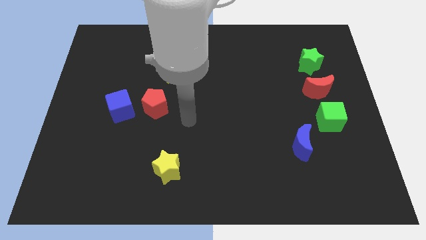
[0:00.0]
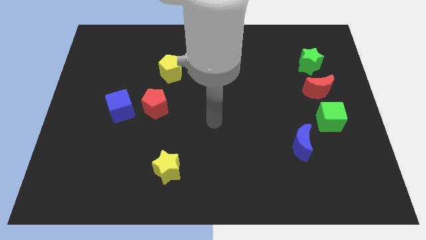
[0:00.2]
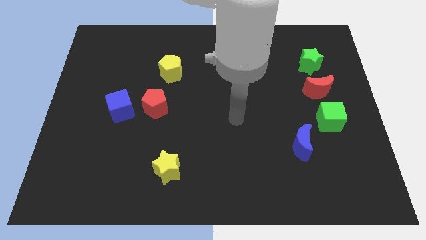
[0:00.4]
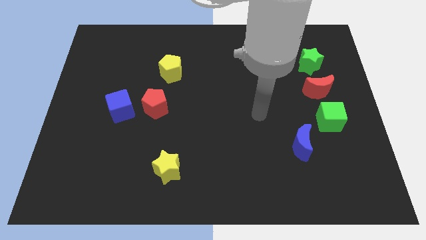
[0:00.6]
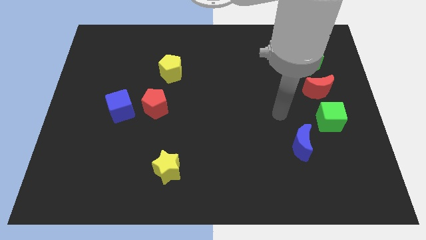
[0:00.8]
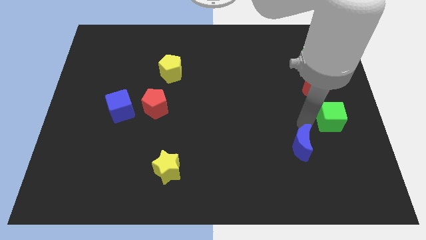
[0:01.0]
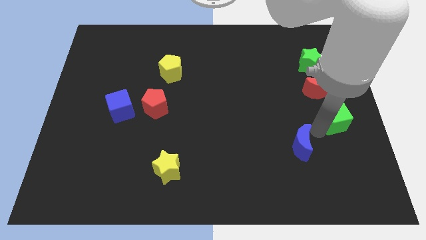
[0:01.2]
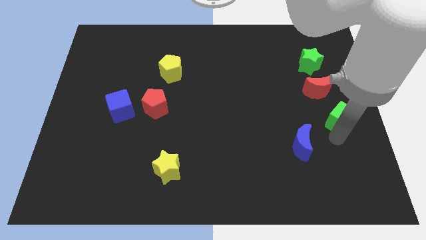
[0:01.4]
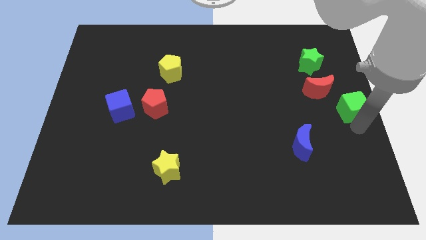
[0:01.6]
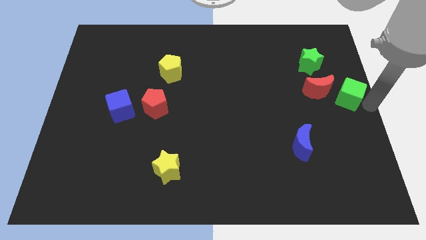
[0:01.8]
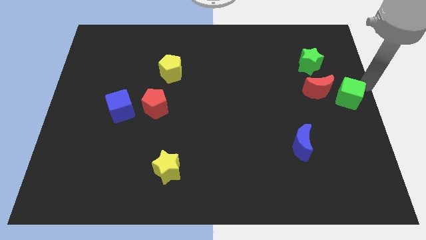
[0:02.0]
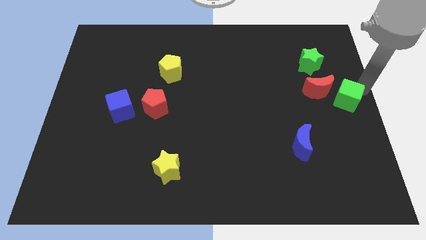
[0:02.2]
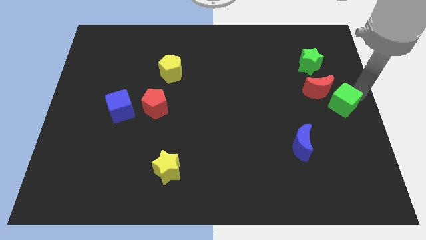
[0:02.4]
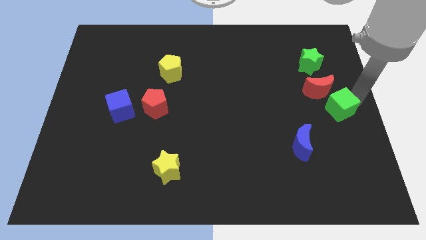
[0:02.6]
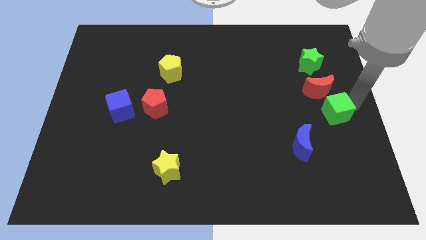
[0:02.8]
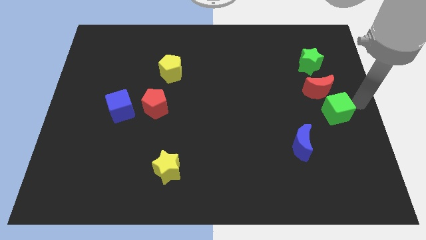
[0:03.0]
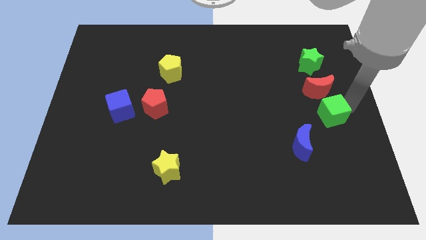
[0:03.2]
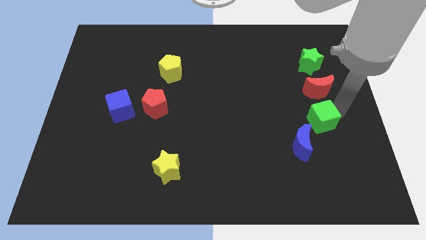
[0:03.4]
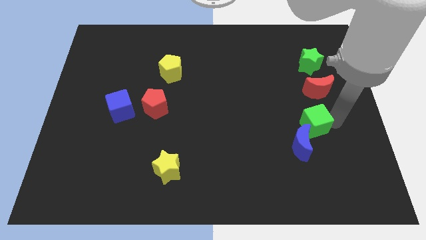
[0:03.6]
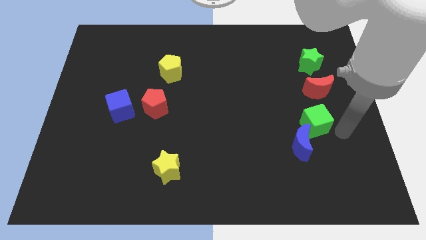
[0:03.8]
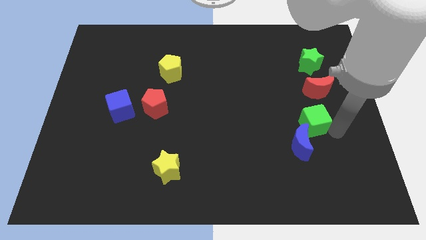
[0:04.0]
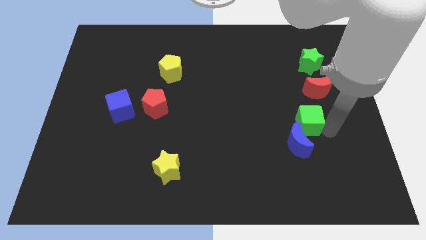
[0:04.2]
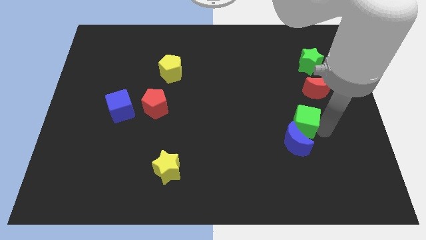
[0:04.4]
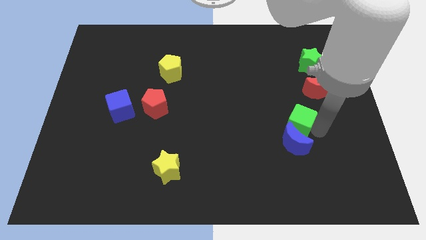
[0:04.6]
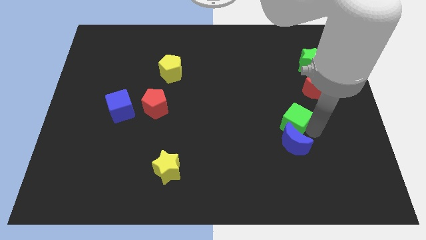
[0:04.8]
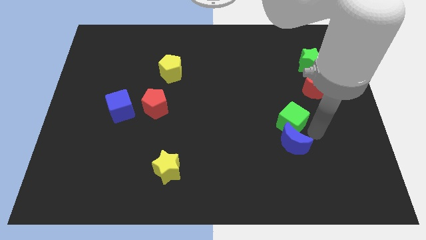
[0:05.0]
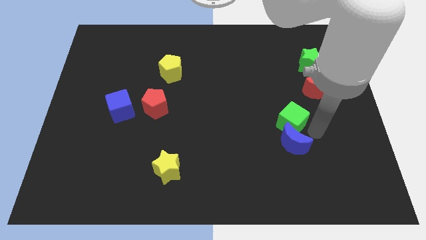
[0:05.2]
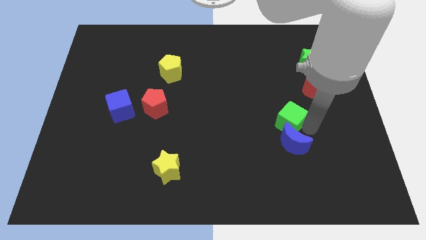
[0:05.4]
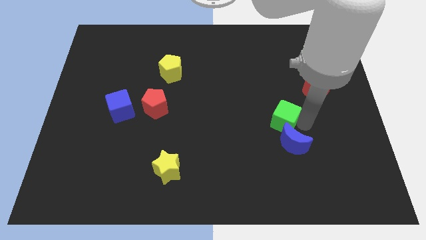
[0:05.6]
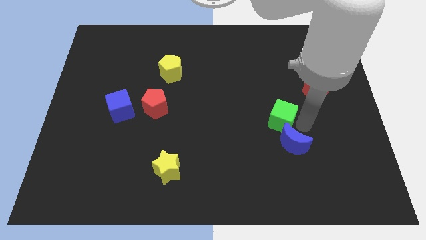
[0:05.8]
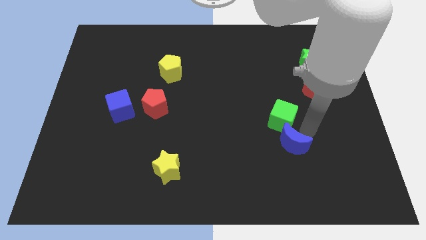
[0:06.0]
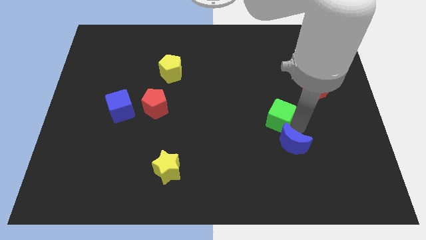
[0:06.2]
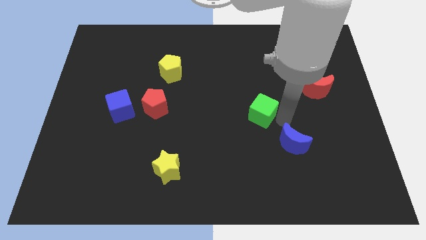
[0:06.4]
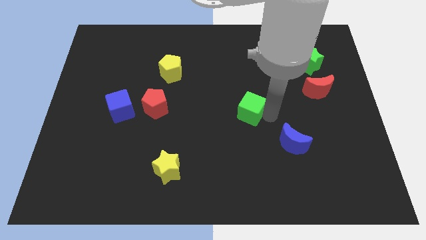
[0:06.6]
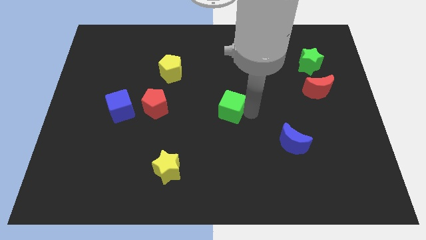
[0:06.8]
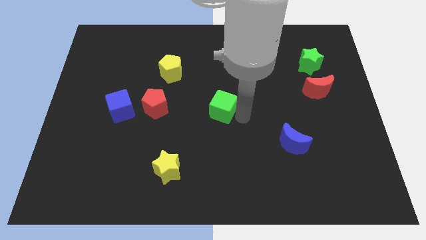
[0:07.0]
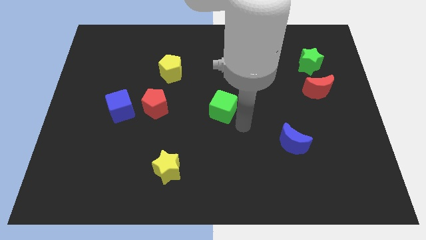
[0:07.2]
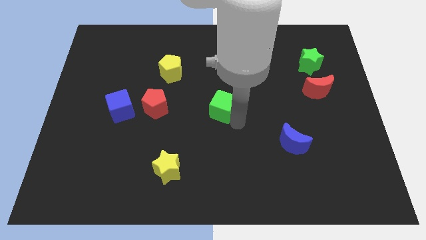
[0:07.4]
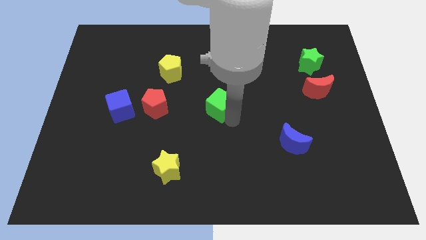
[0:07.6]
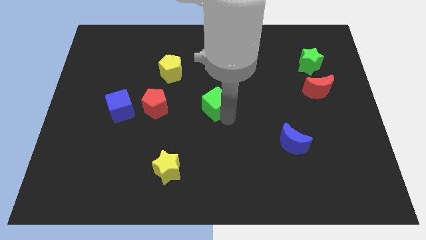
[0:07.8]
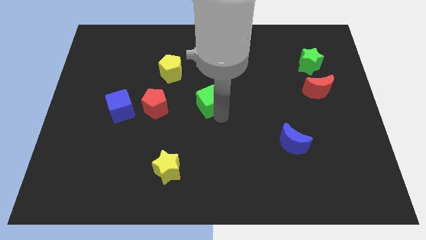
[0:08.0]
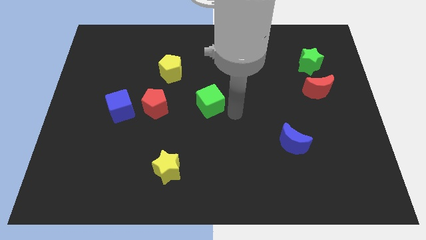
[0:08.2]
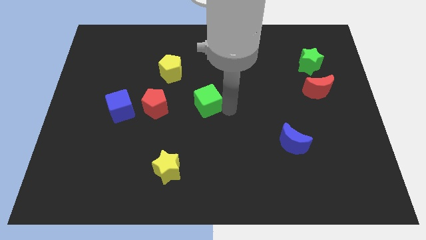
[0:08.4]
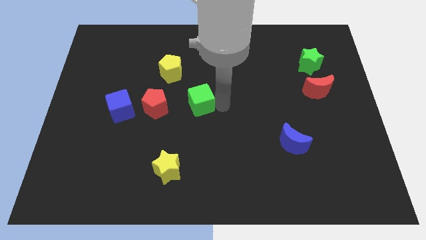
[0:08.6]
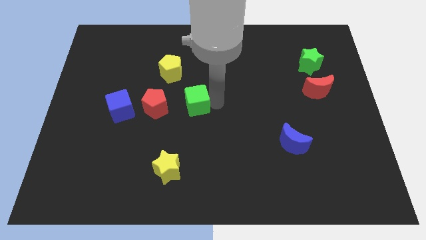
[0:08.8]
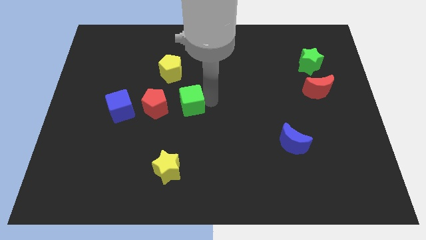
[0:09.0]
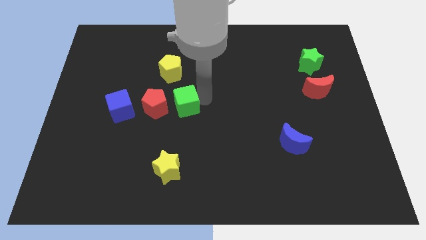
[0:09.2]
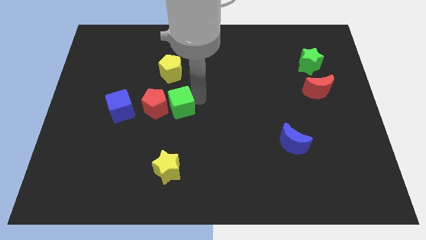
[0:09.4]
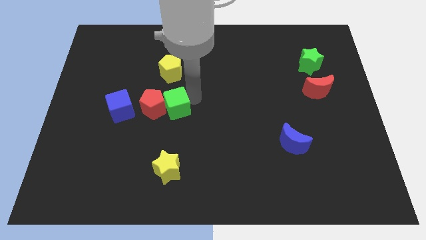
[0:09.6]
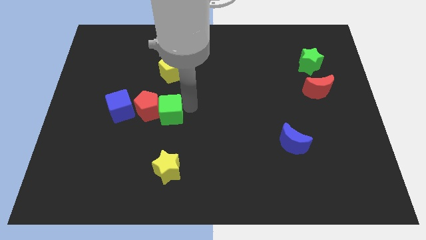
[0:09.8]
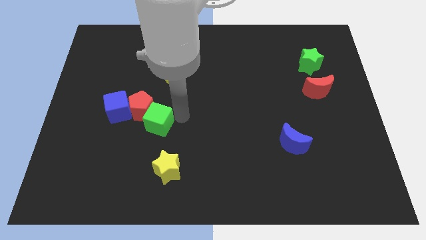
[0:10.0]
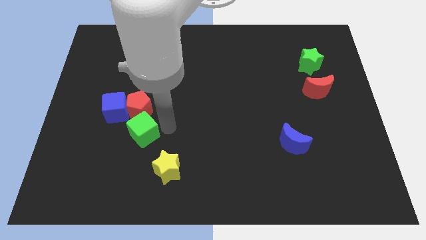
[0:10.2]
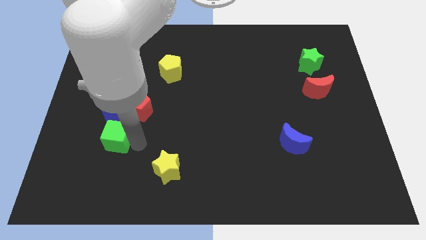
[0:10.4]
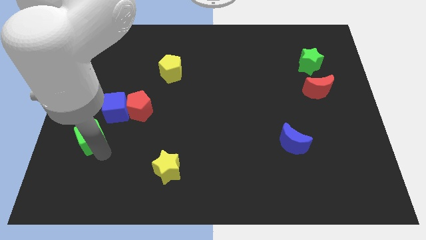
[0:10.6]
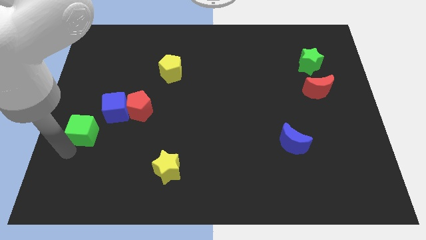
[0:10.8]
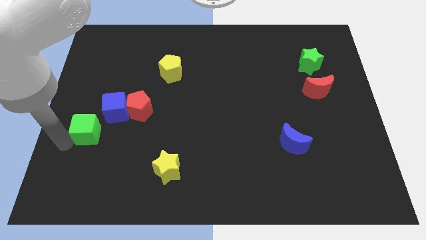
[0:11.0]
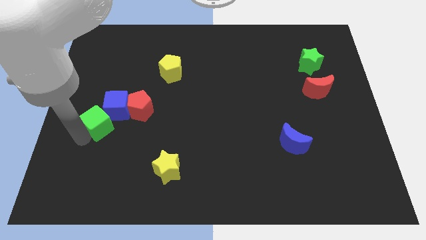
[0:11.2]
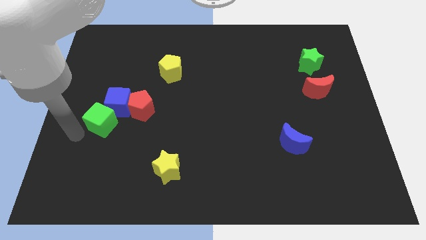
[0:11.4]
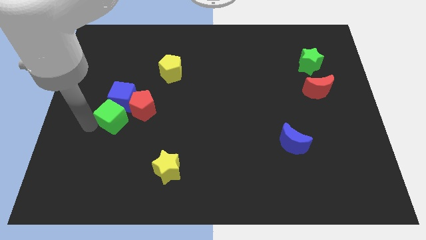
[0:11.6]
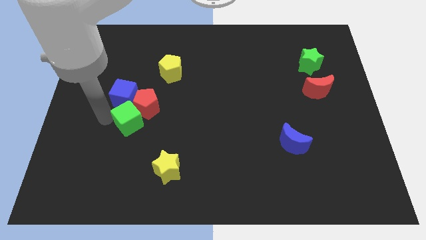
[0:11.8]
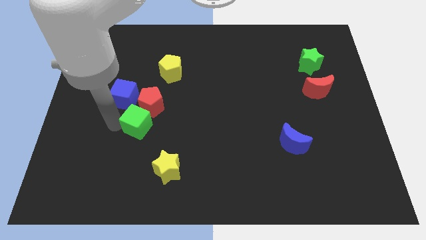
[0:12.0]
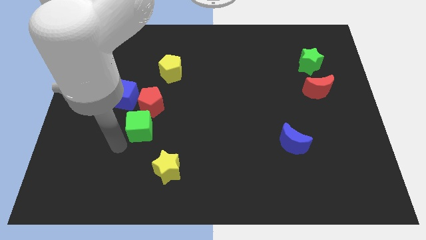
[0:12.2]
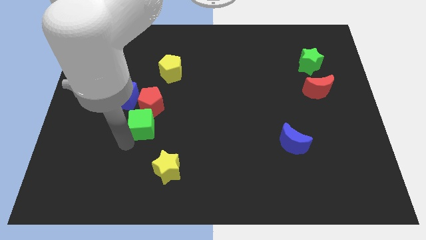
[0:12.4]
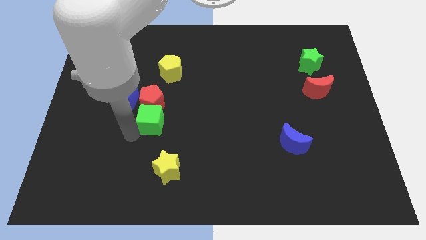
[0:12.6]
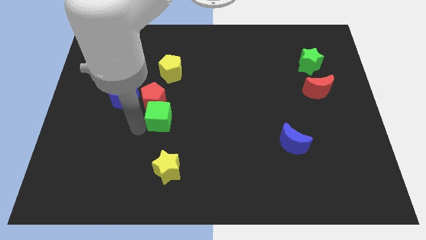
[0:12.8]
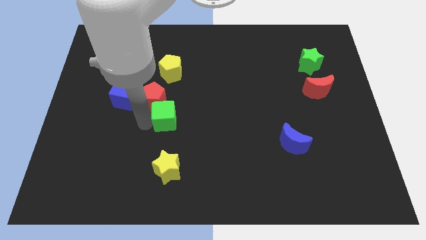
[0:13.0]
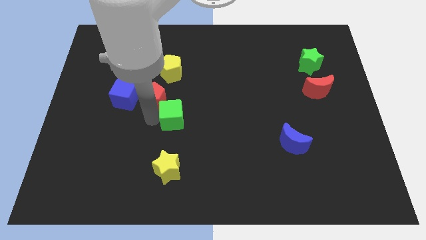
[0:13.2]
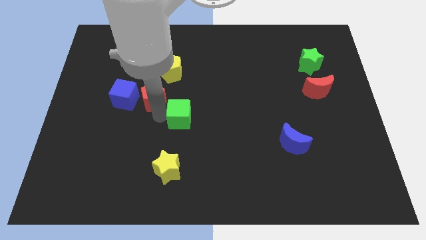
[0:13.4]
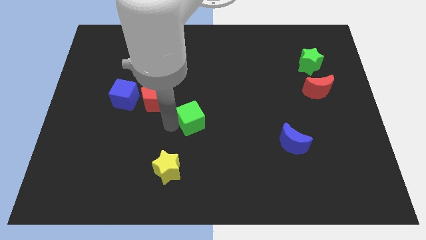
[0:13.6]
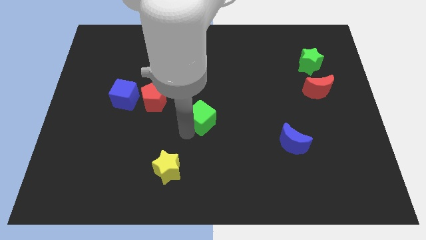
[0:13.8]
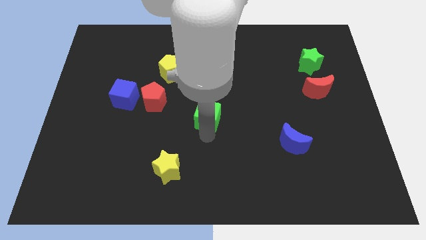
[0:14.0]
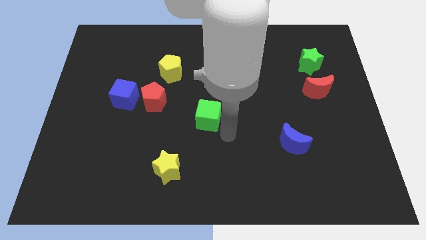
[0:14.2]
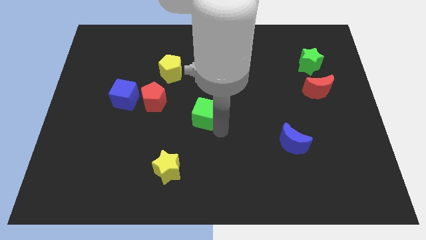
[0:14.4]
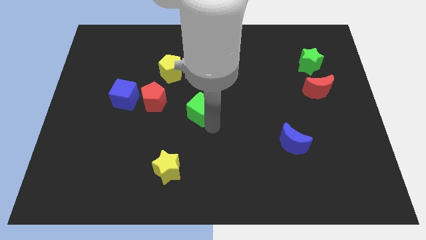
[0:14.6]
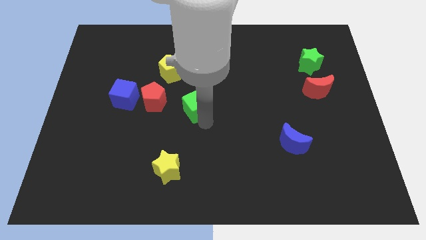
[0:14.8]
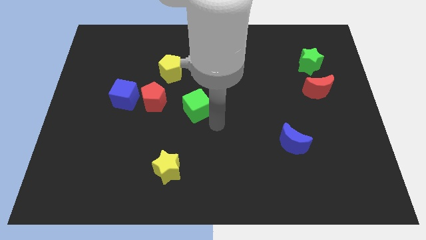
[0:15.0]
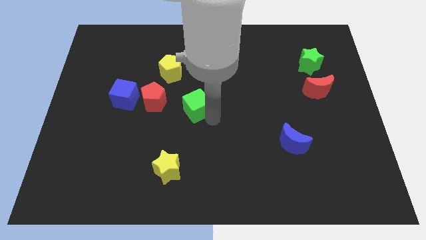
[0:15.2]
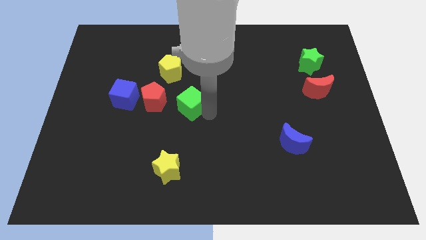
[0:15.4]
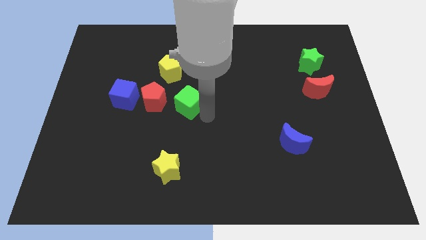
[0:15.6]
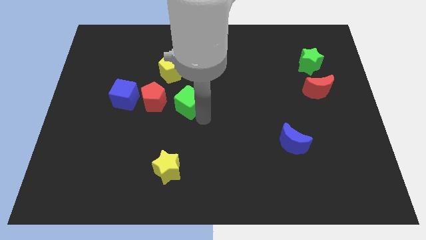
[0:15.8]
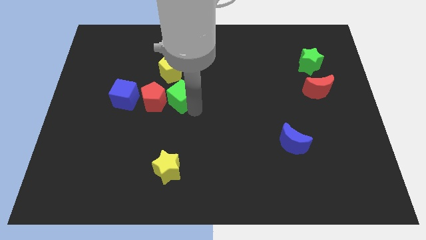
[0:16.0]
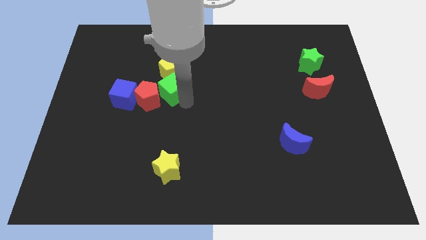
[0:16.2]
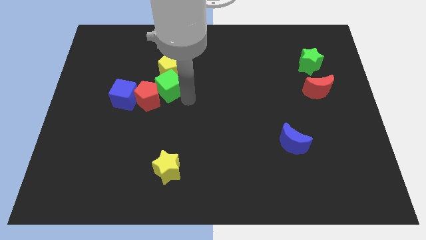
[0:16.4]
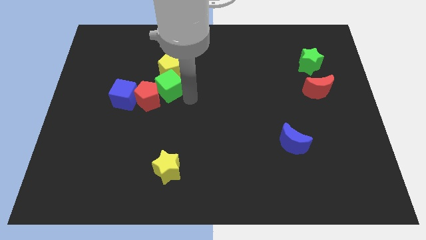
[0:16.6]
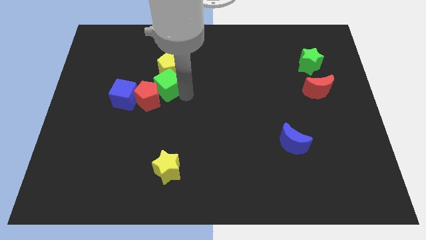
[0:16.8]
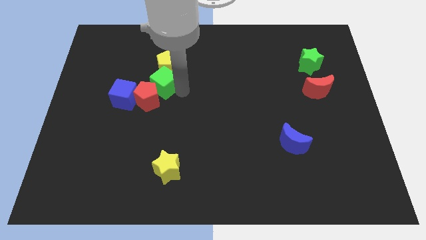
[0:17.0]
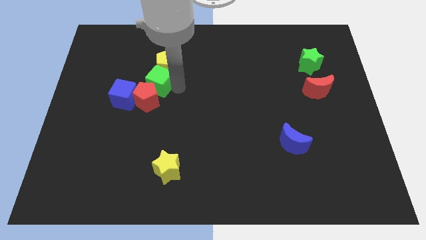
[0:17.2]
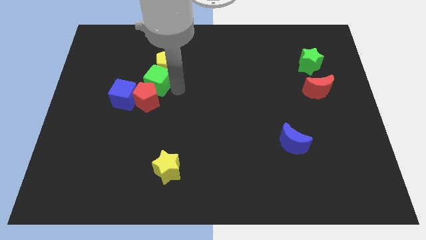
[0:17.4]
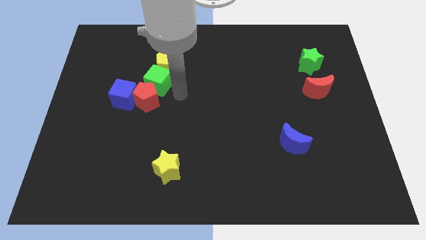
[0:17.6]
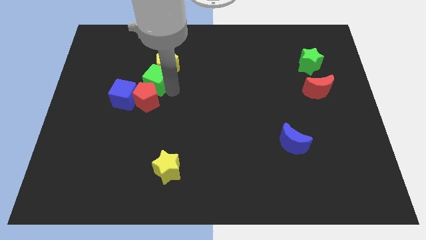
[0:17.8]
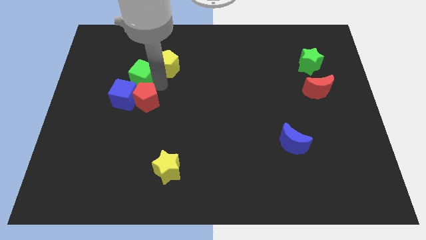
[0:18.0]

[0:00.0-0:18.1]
slide the green cube just left of the yellow pentagon
